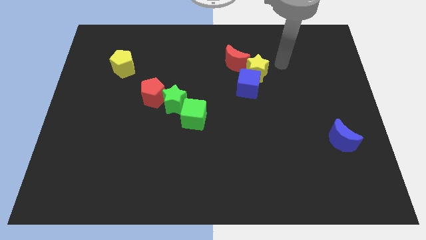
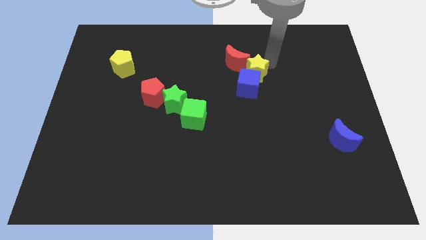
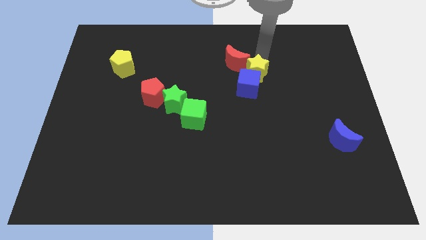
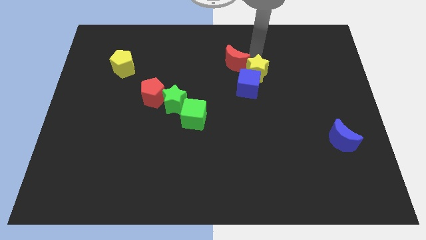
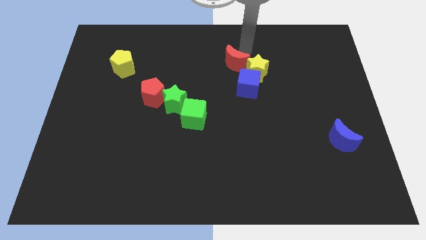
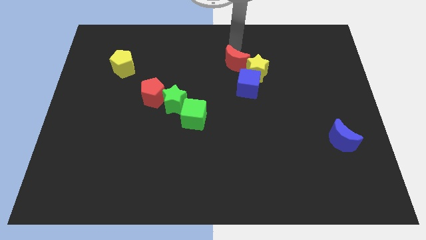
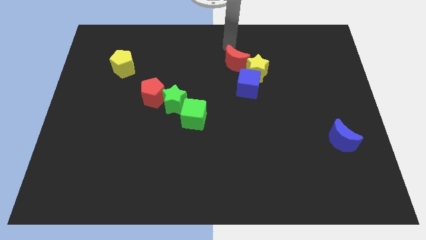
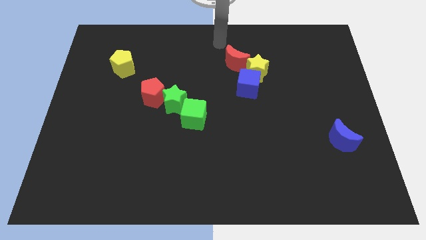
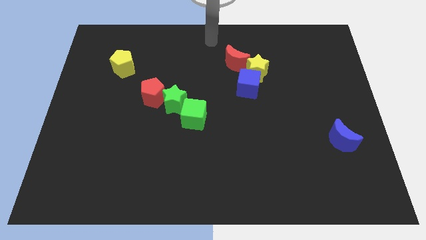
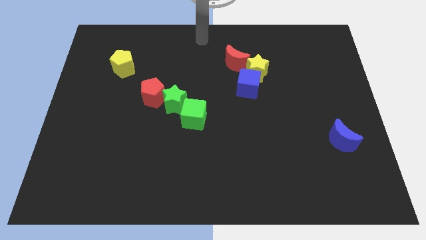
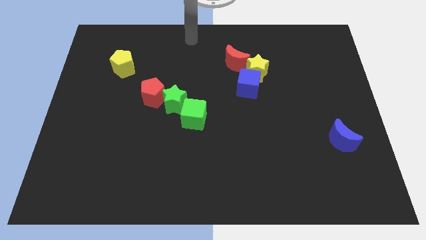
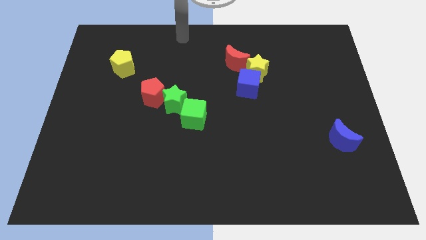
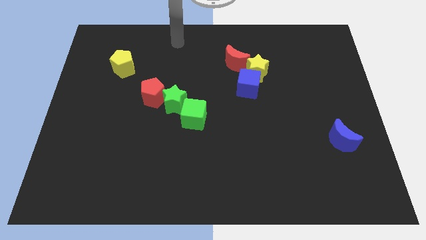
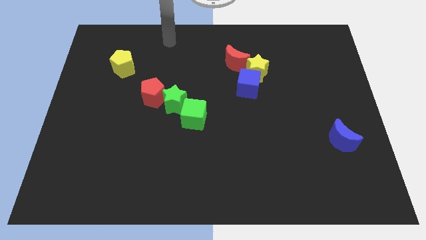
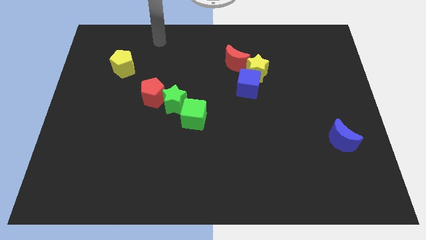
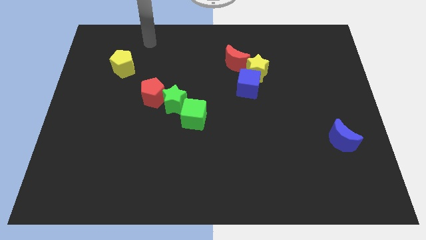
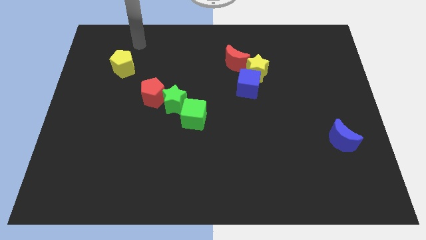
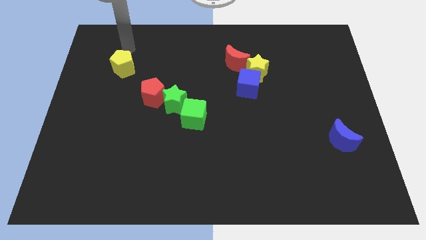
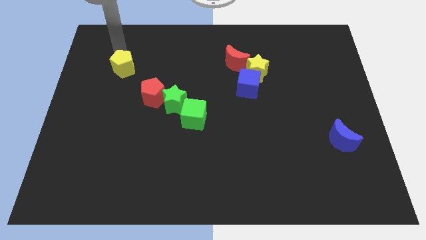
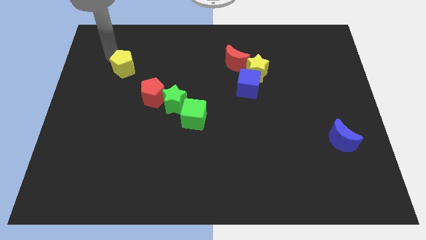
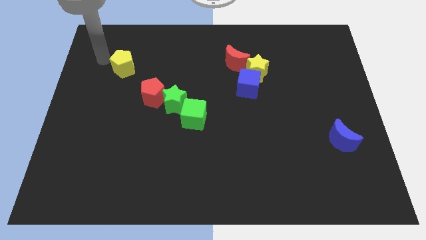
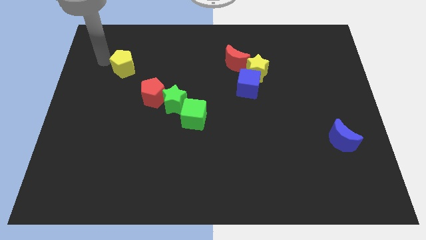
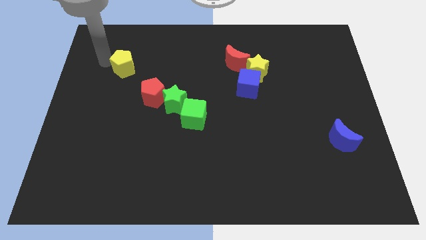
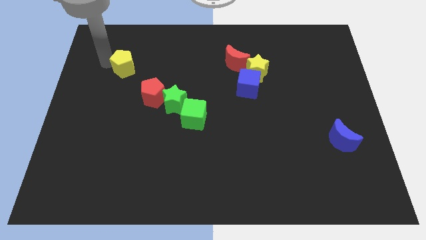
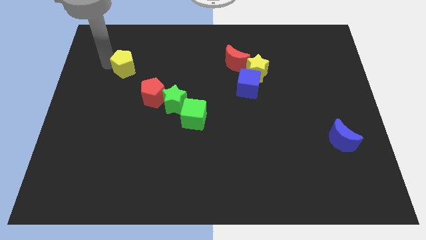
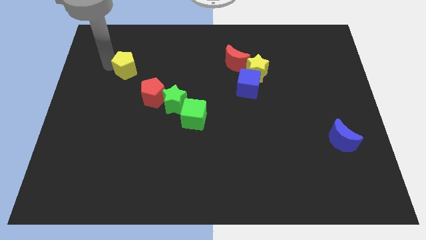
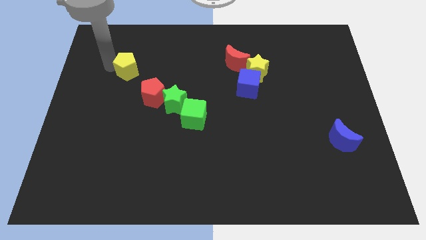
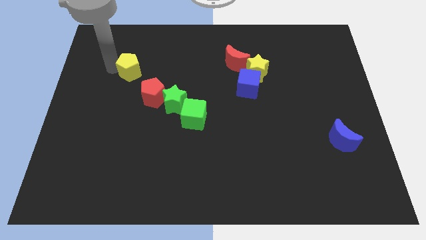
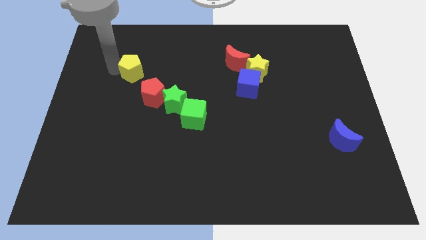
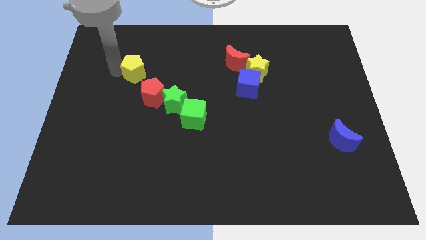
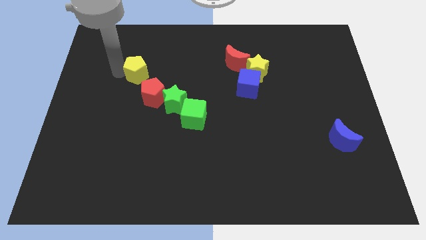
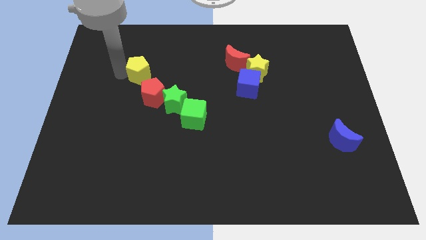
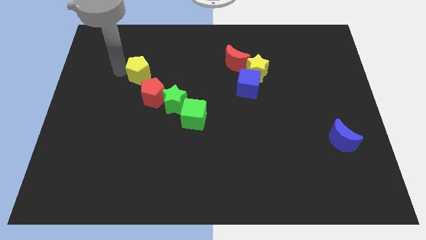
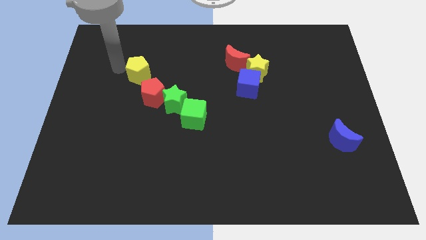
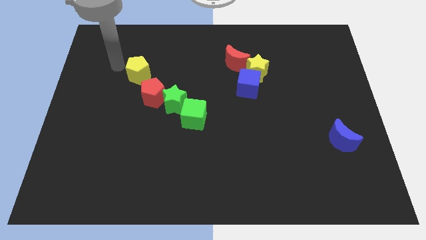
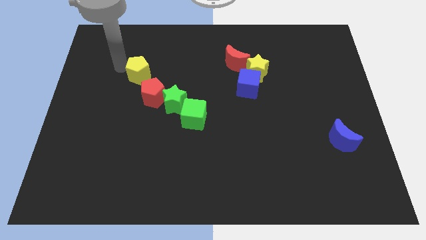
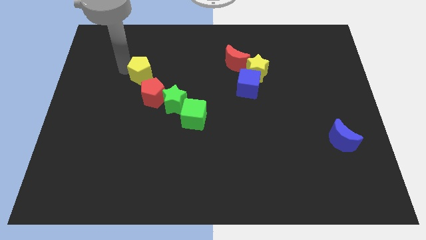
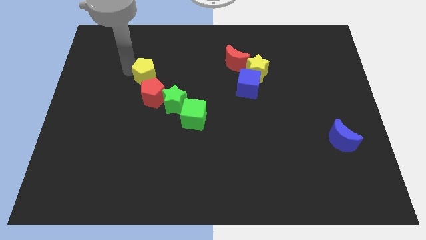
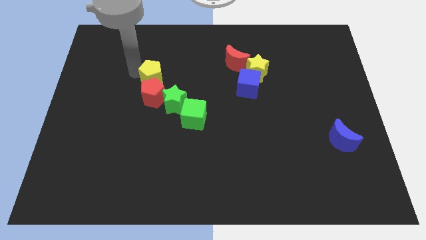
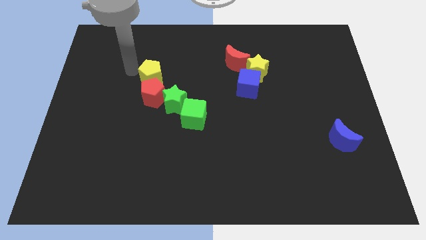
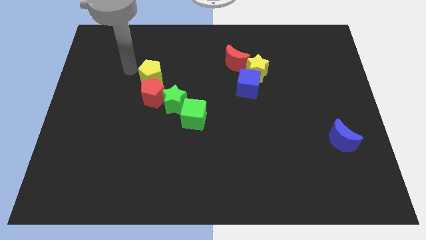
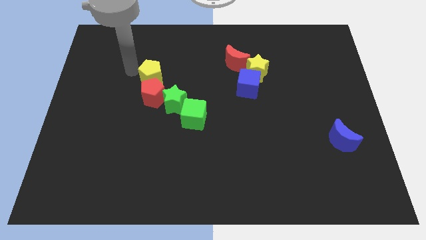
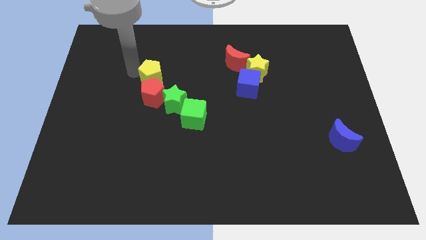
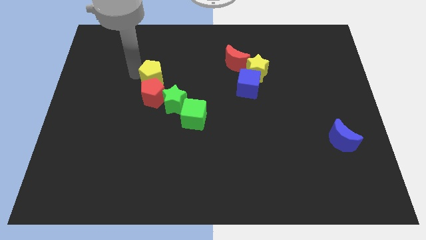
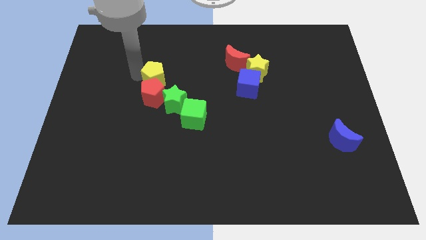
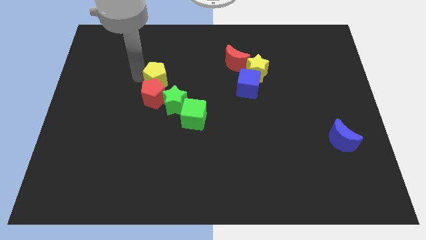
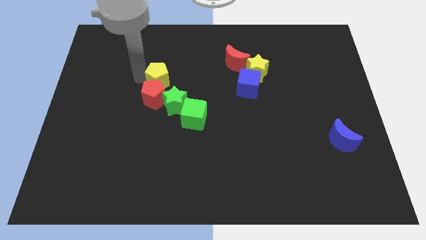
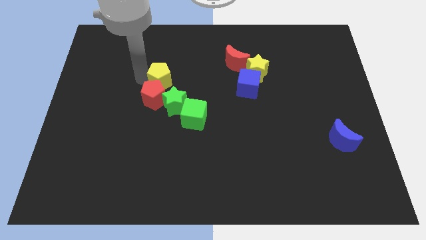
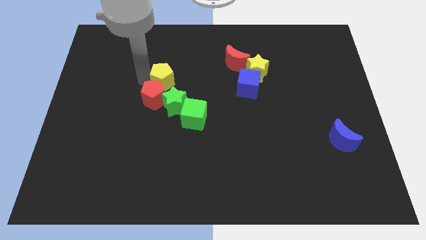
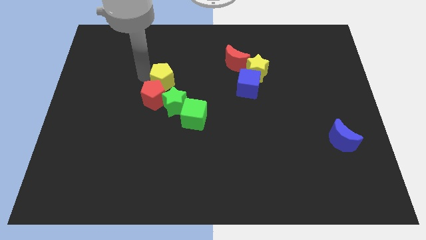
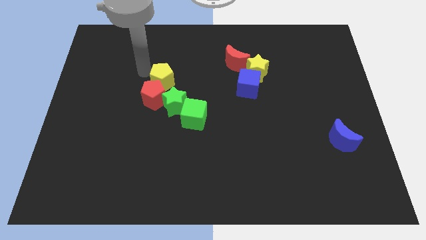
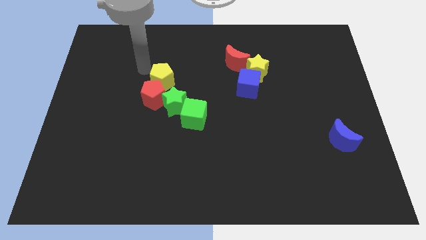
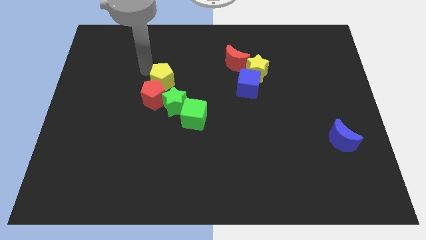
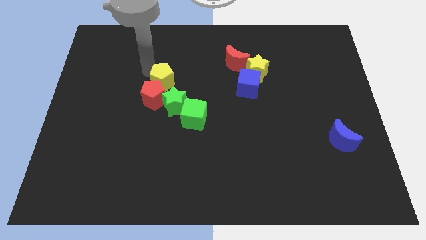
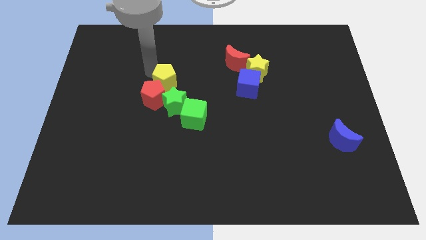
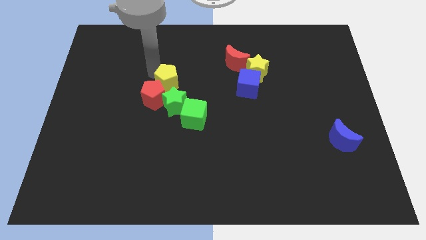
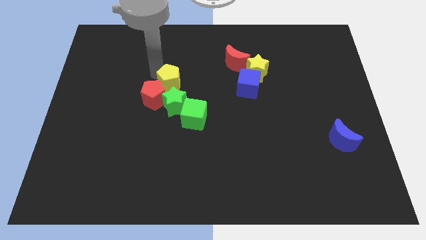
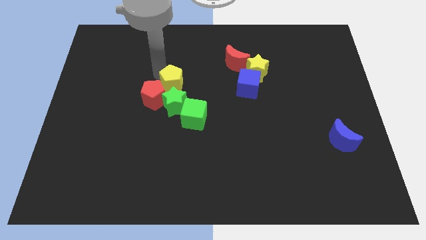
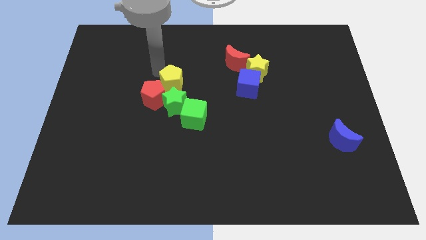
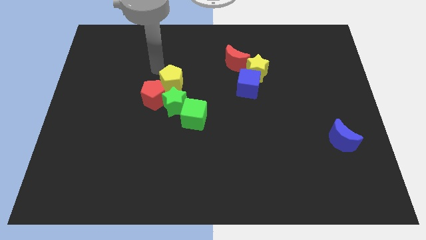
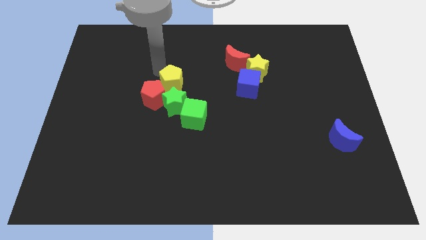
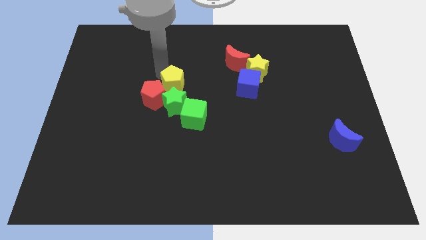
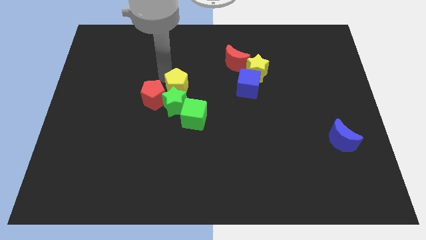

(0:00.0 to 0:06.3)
put the yellow pentagon towards the green star
